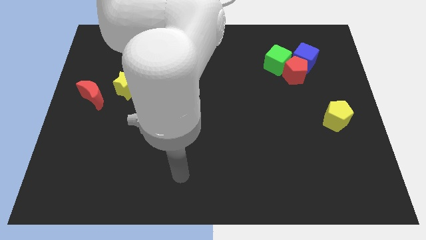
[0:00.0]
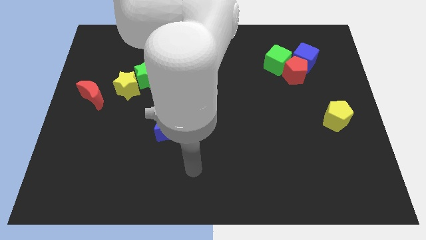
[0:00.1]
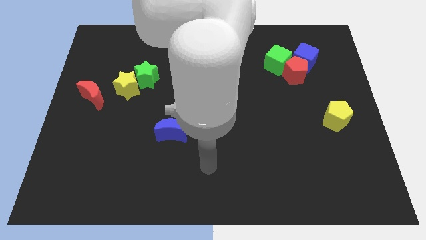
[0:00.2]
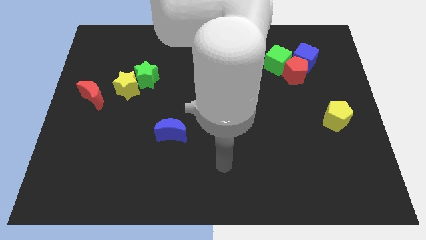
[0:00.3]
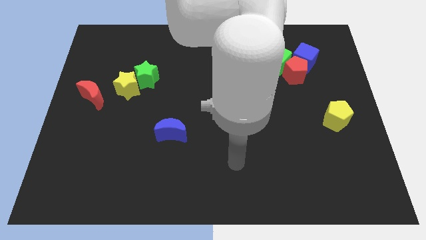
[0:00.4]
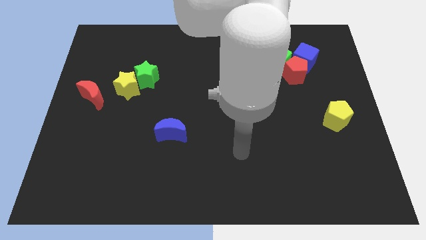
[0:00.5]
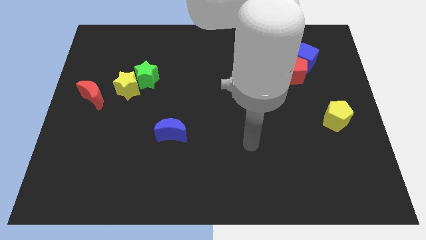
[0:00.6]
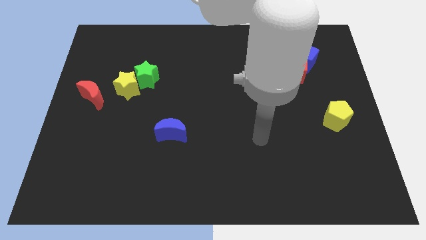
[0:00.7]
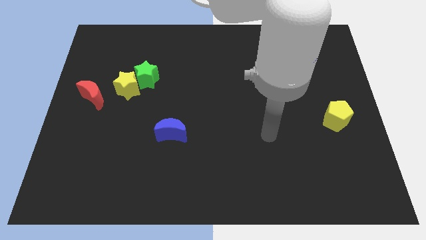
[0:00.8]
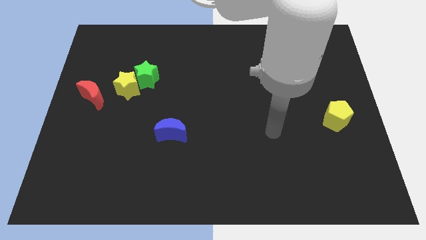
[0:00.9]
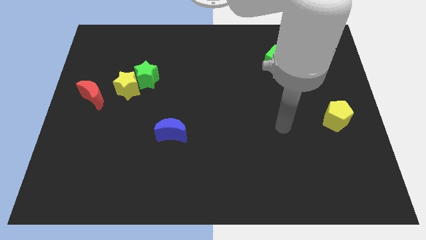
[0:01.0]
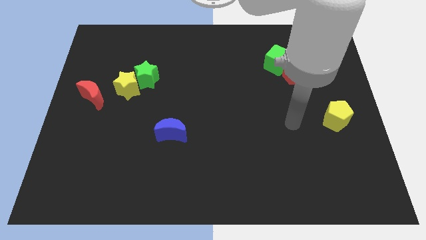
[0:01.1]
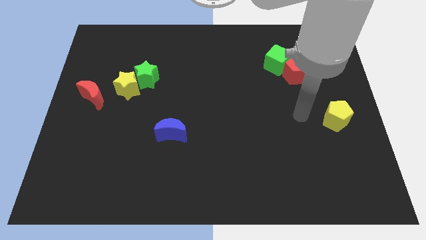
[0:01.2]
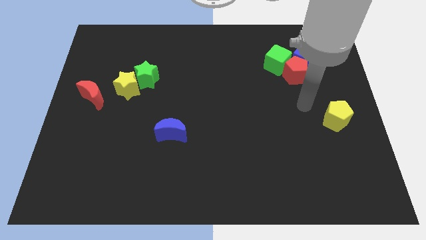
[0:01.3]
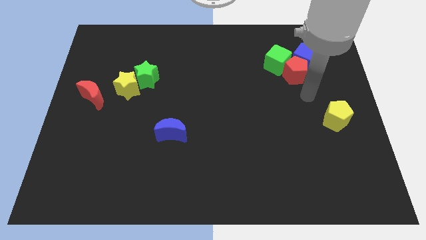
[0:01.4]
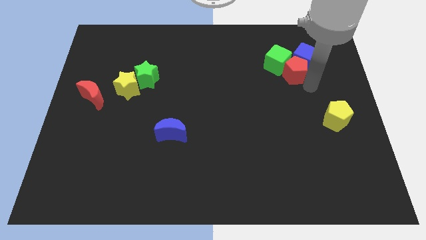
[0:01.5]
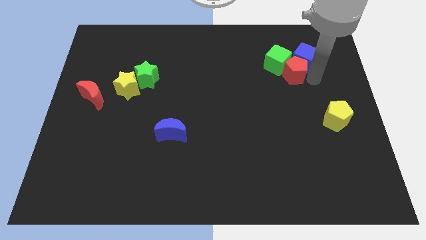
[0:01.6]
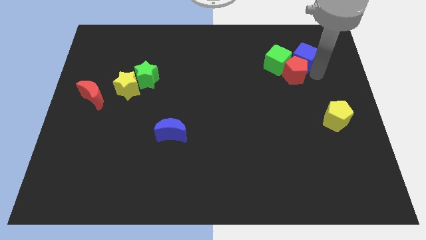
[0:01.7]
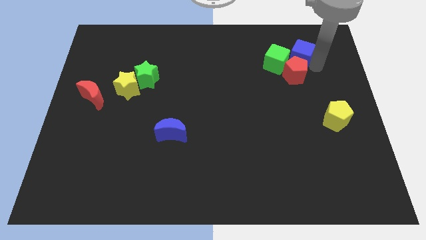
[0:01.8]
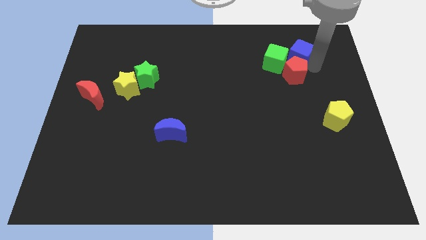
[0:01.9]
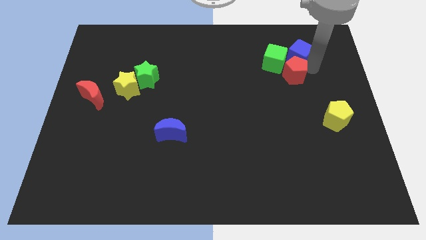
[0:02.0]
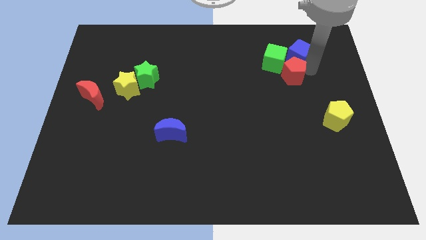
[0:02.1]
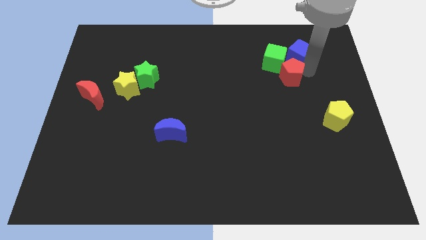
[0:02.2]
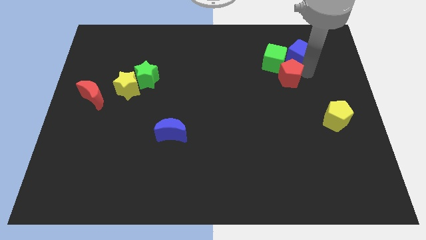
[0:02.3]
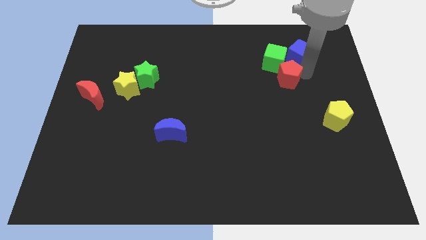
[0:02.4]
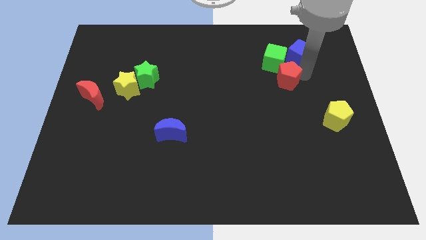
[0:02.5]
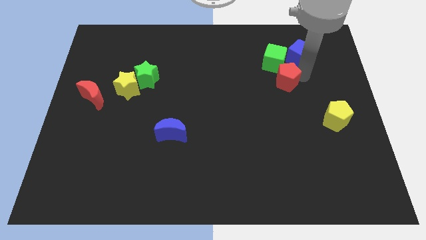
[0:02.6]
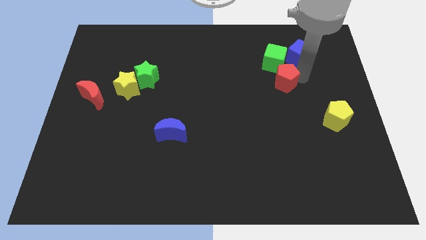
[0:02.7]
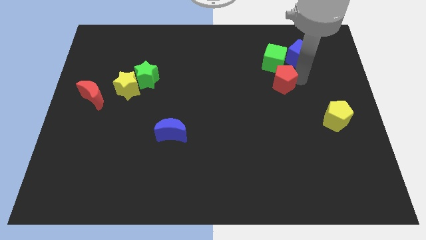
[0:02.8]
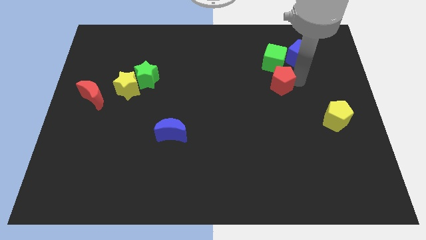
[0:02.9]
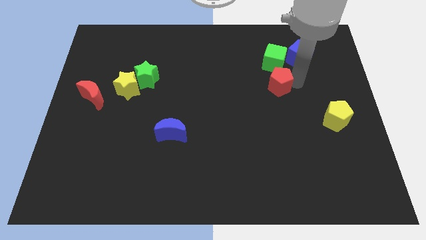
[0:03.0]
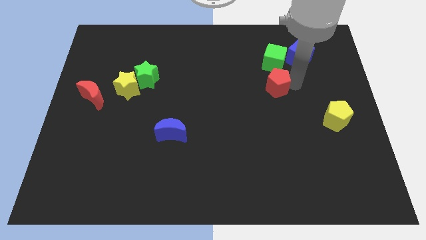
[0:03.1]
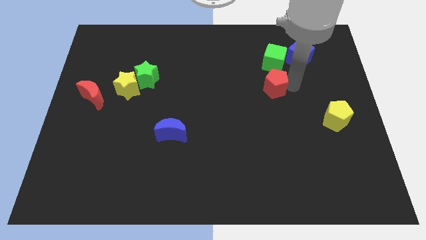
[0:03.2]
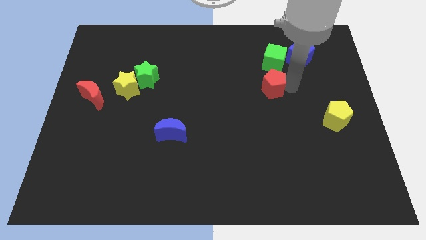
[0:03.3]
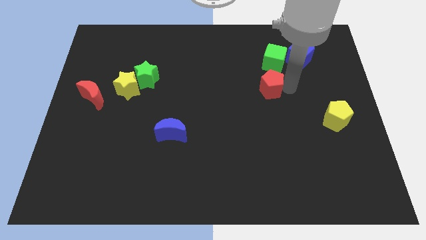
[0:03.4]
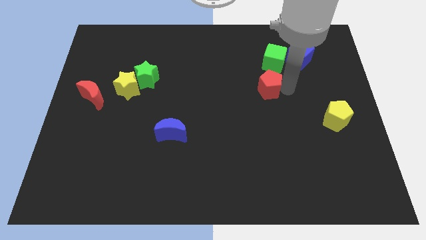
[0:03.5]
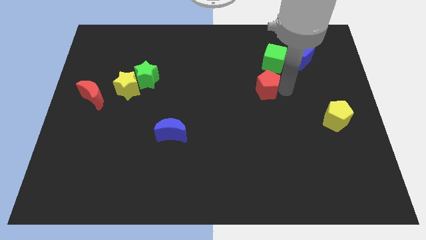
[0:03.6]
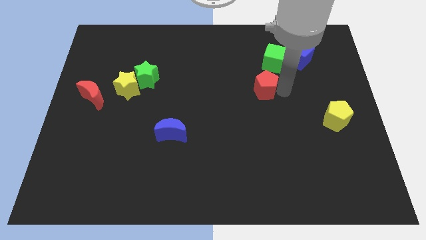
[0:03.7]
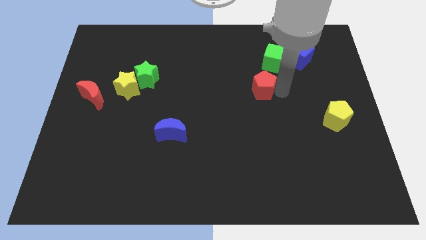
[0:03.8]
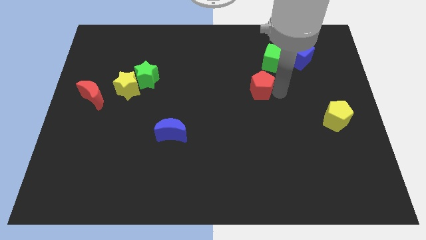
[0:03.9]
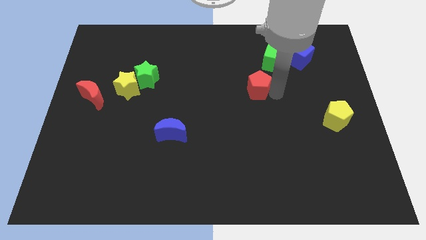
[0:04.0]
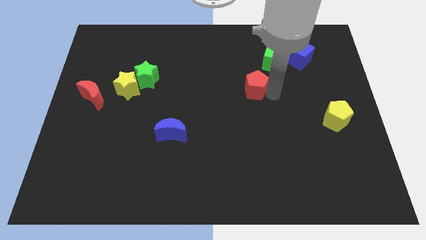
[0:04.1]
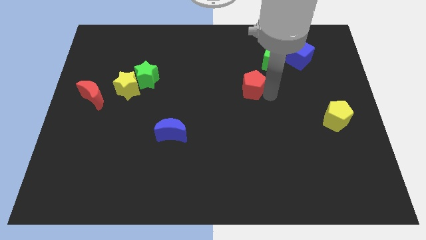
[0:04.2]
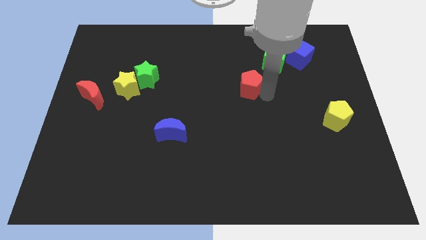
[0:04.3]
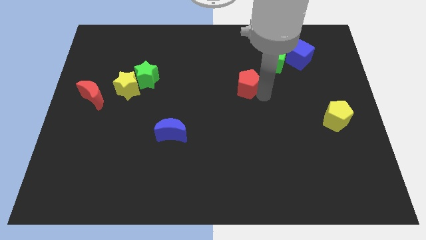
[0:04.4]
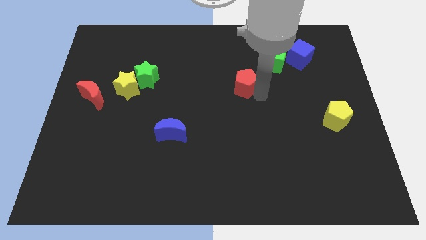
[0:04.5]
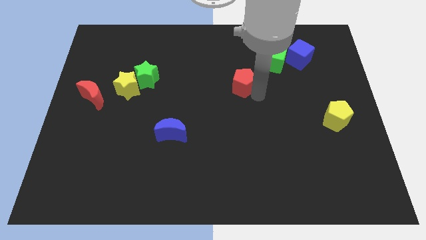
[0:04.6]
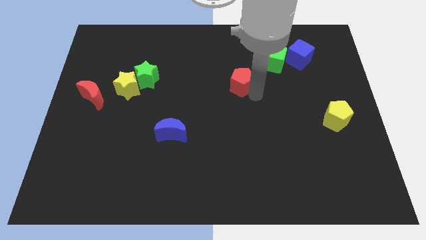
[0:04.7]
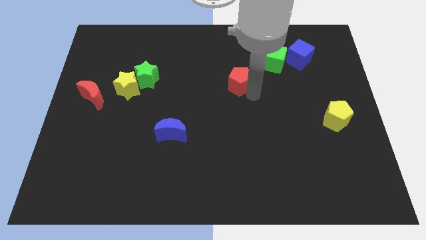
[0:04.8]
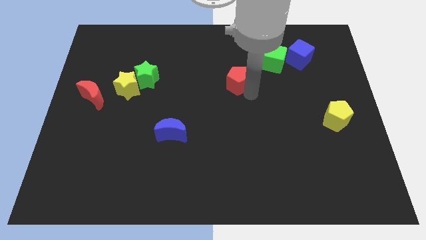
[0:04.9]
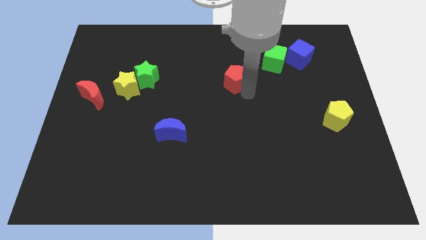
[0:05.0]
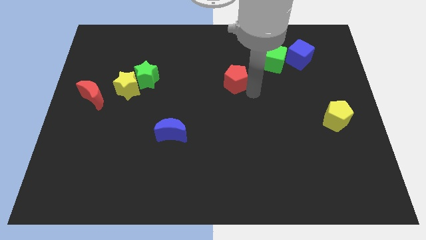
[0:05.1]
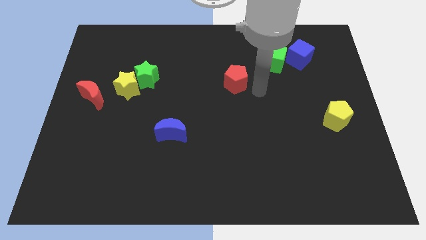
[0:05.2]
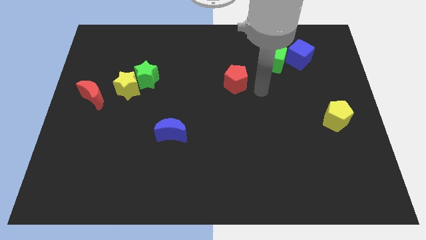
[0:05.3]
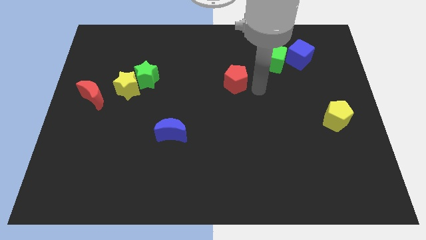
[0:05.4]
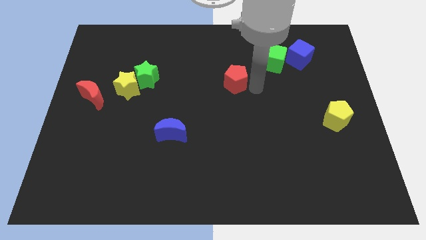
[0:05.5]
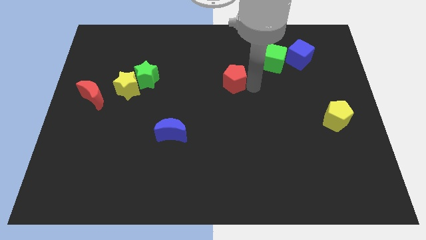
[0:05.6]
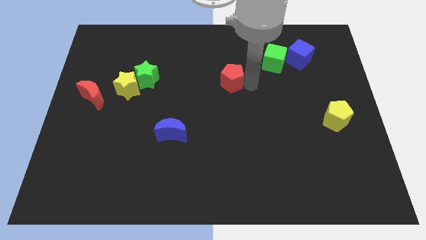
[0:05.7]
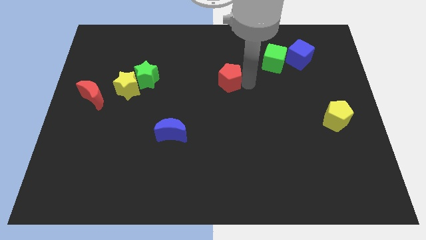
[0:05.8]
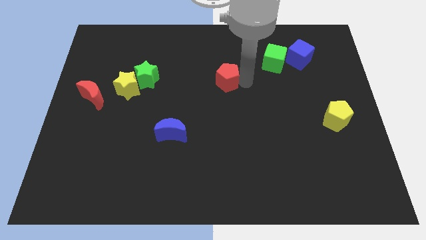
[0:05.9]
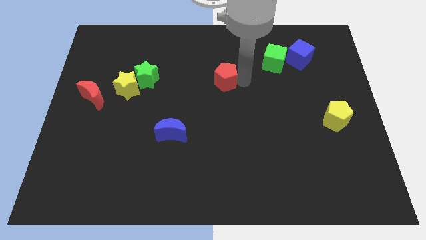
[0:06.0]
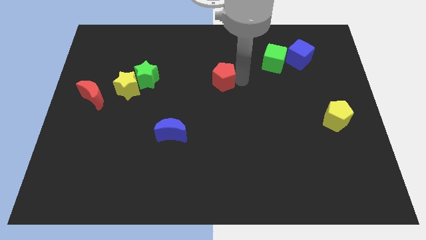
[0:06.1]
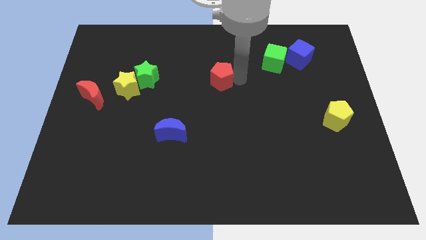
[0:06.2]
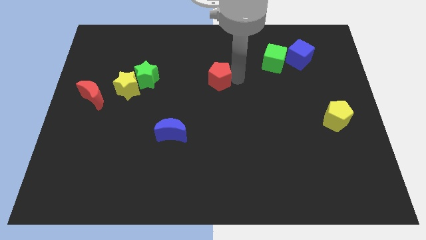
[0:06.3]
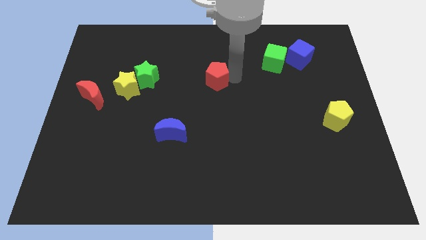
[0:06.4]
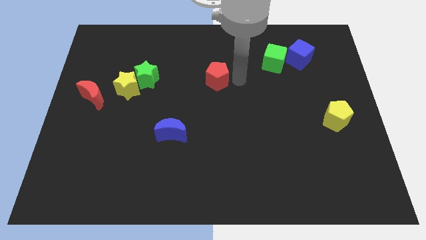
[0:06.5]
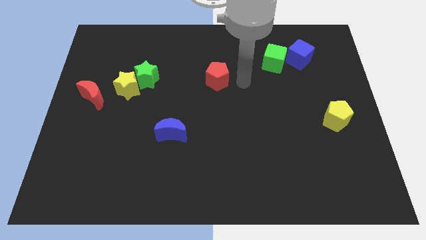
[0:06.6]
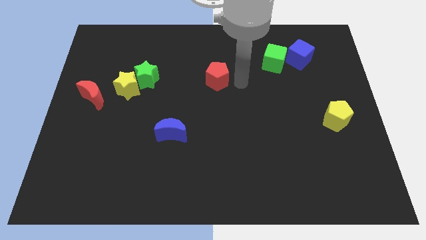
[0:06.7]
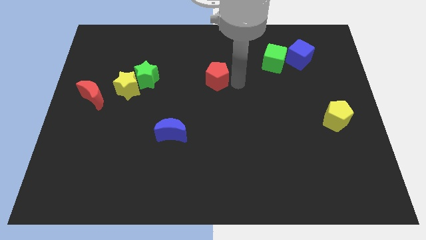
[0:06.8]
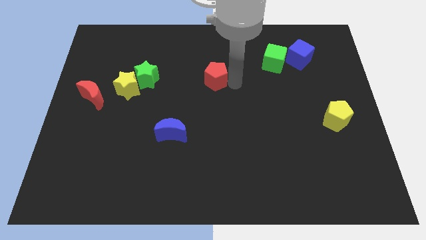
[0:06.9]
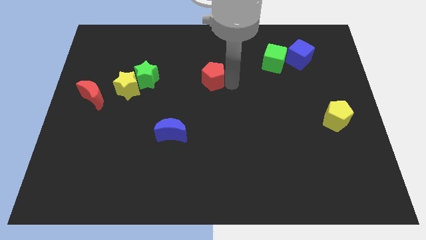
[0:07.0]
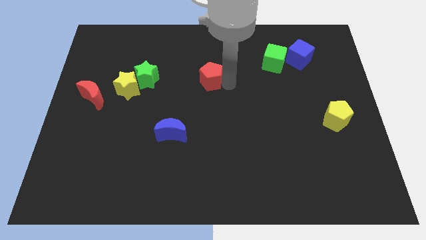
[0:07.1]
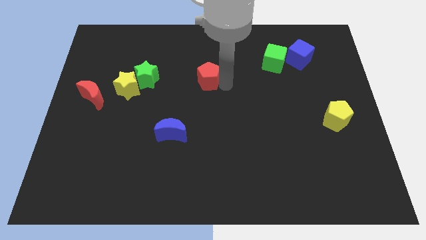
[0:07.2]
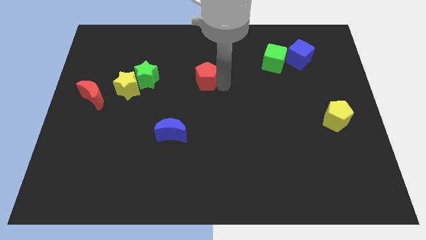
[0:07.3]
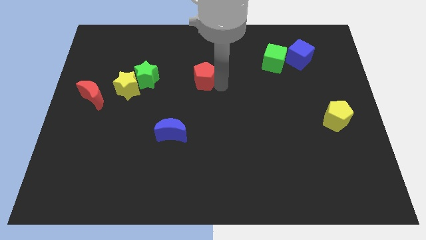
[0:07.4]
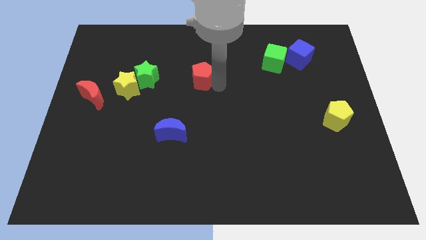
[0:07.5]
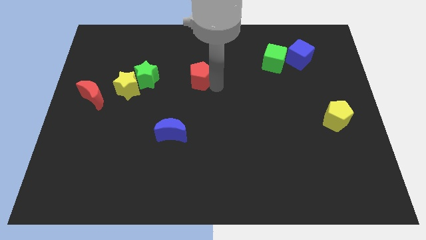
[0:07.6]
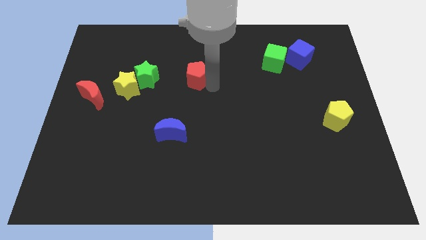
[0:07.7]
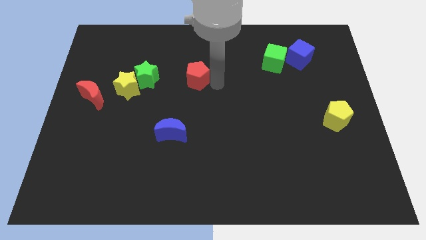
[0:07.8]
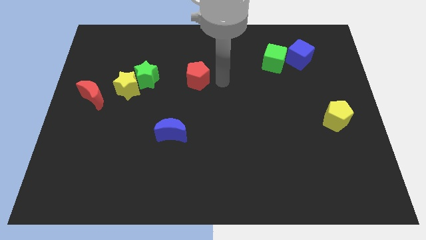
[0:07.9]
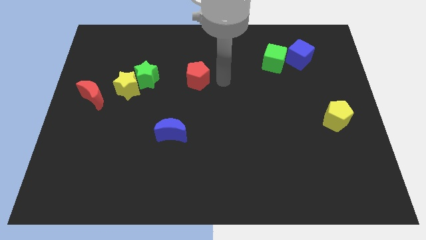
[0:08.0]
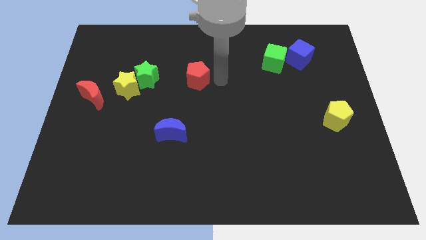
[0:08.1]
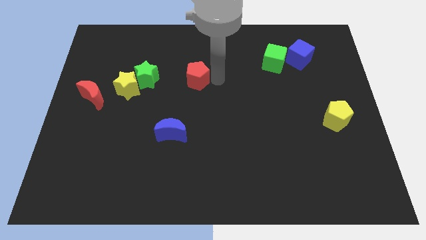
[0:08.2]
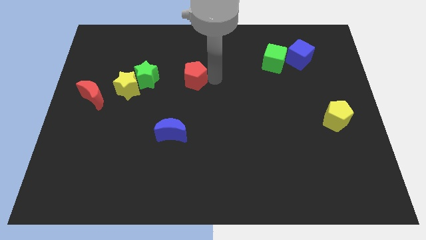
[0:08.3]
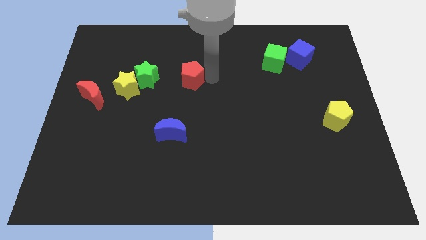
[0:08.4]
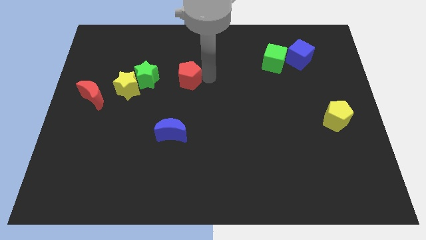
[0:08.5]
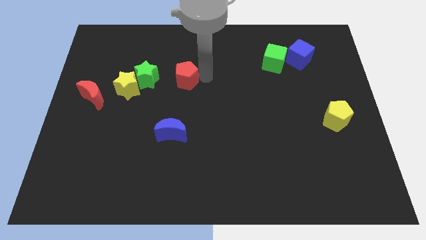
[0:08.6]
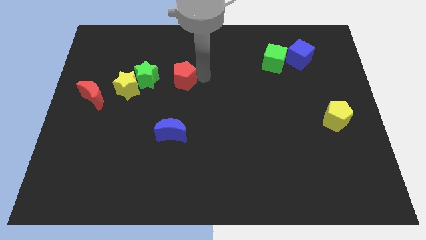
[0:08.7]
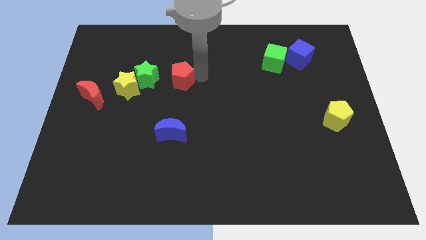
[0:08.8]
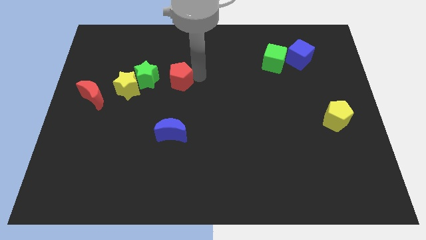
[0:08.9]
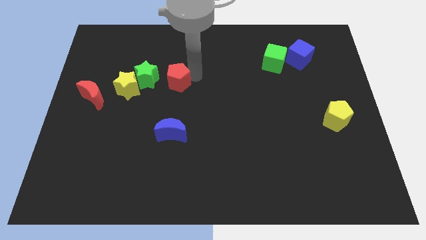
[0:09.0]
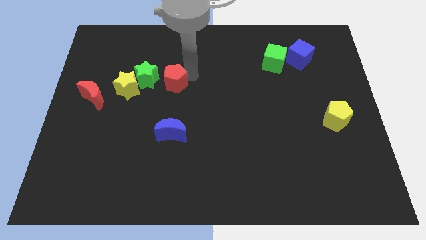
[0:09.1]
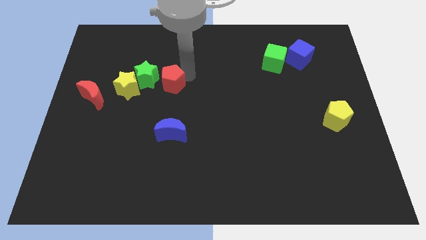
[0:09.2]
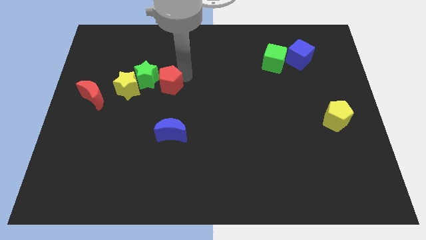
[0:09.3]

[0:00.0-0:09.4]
slide the red pentagon to the green star
